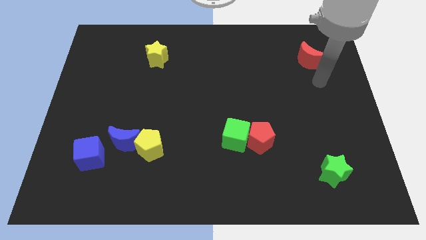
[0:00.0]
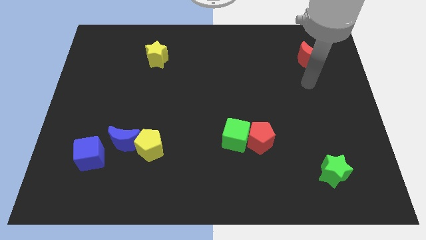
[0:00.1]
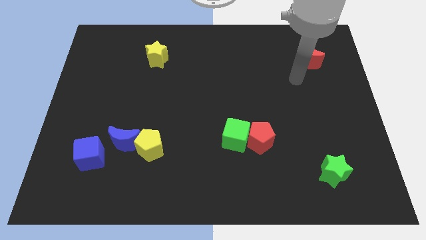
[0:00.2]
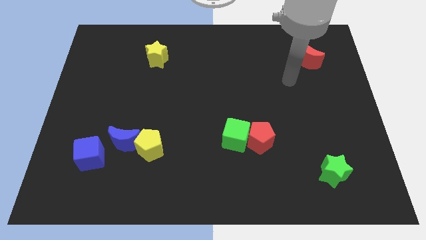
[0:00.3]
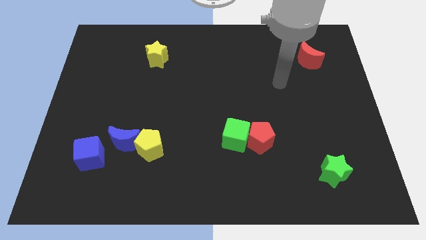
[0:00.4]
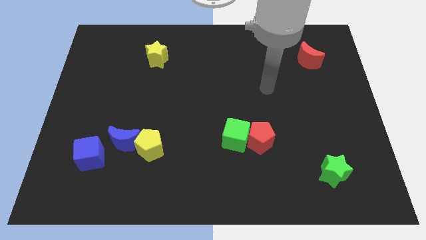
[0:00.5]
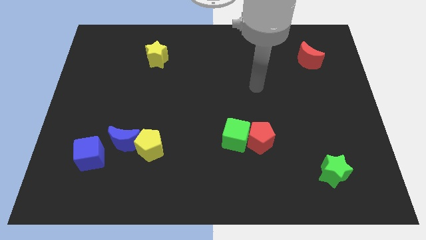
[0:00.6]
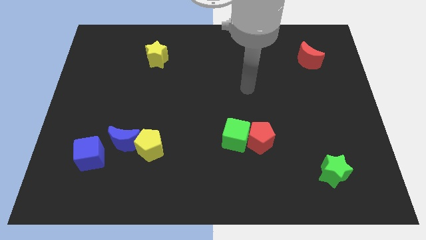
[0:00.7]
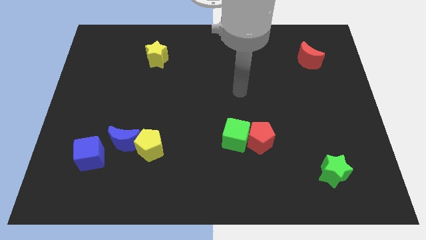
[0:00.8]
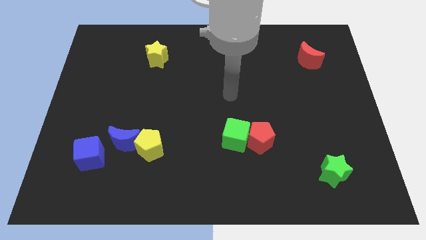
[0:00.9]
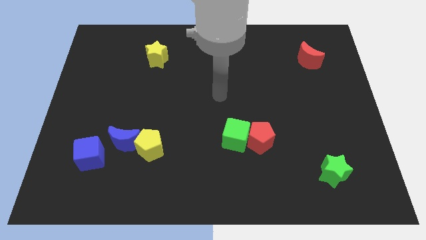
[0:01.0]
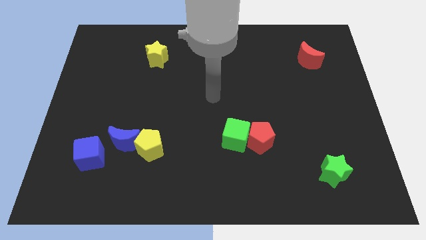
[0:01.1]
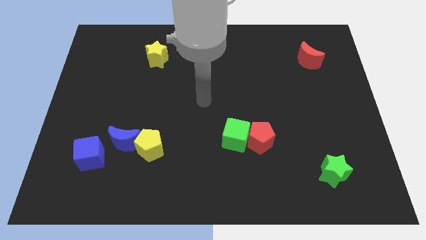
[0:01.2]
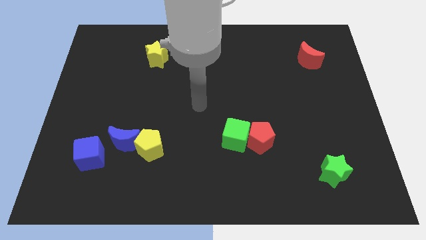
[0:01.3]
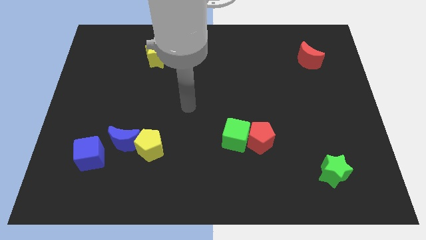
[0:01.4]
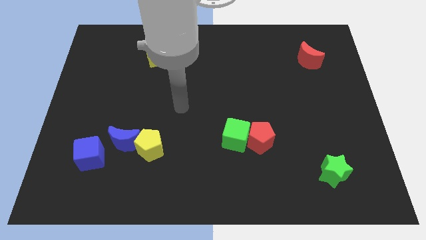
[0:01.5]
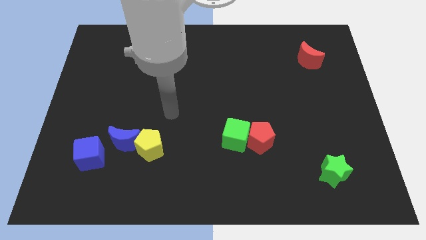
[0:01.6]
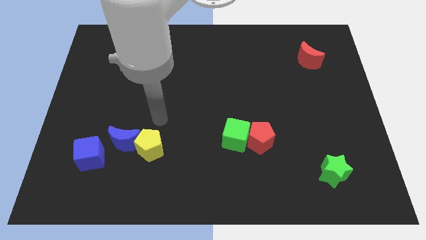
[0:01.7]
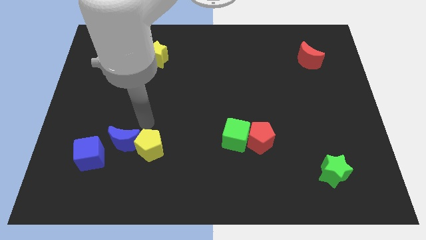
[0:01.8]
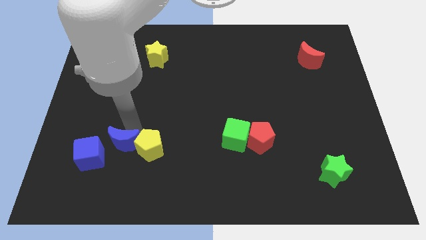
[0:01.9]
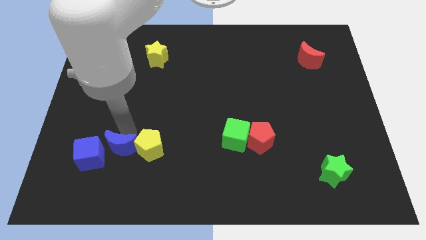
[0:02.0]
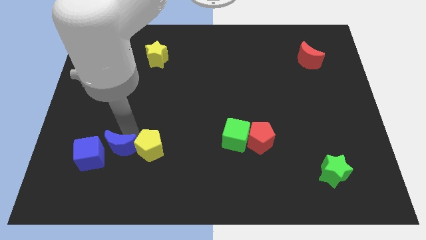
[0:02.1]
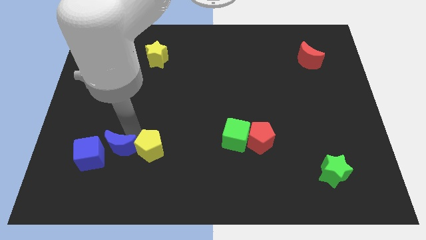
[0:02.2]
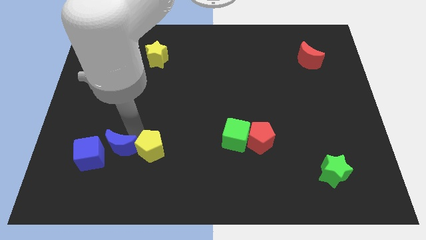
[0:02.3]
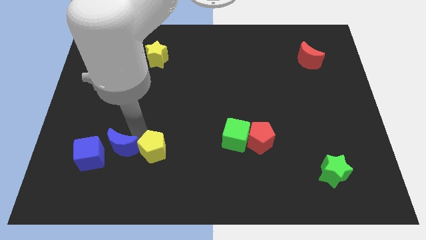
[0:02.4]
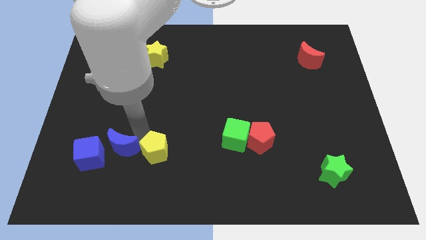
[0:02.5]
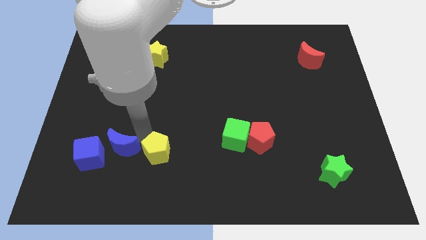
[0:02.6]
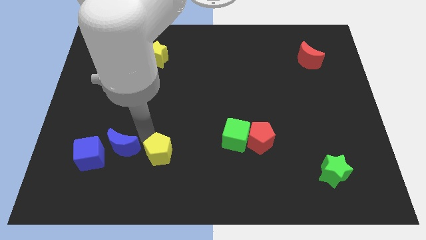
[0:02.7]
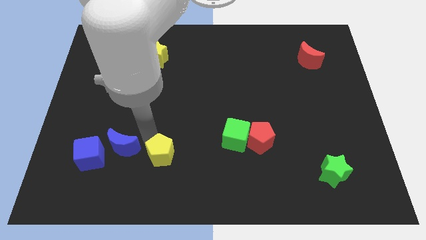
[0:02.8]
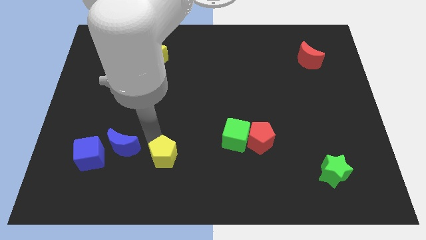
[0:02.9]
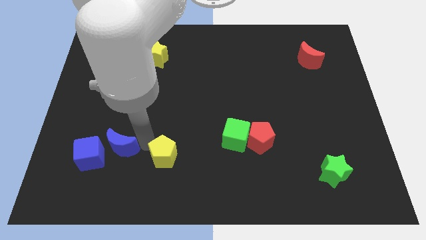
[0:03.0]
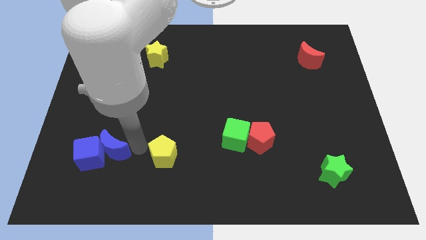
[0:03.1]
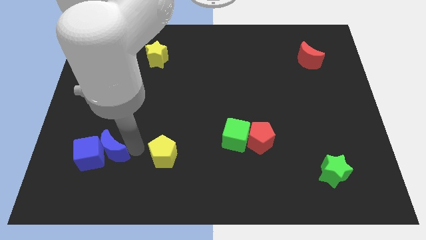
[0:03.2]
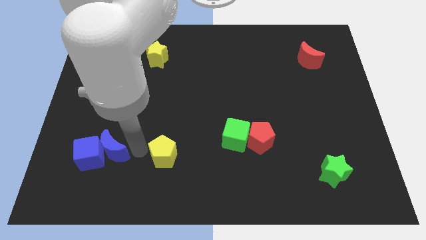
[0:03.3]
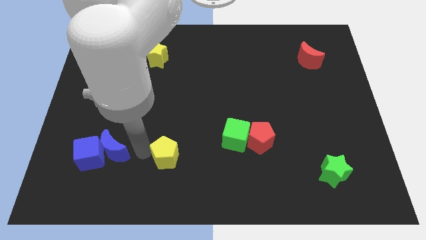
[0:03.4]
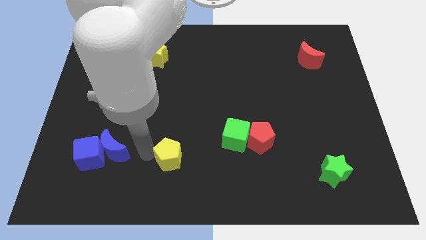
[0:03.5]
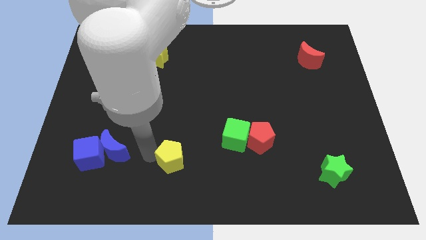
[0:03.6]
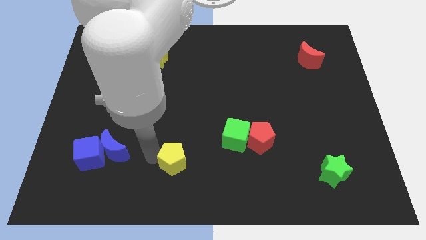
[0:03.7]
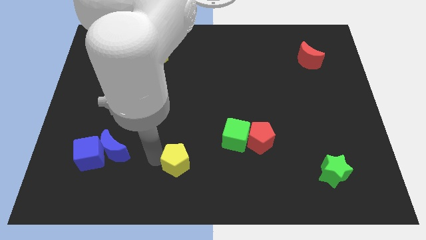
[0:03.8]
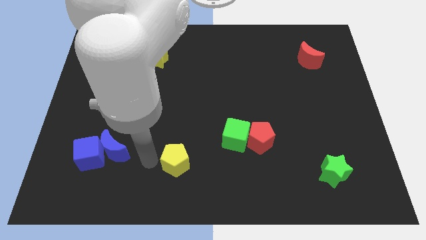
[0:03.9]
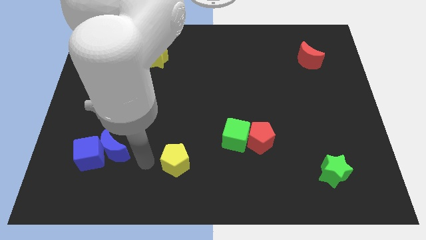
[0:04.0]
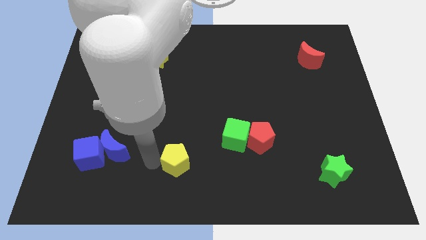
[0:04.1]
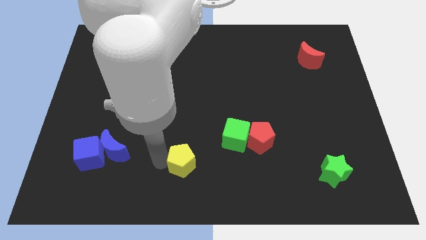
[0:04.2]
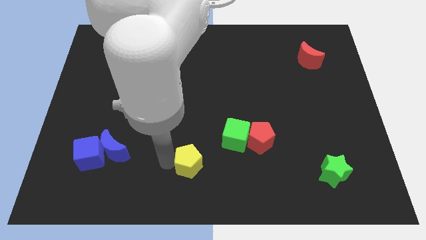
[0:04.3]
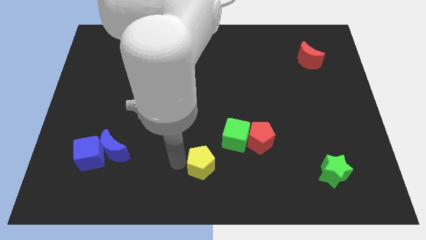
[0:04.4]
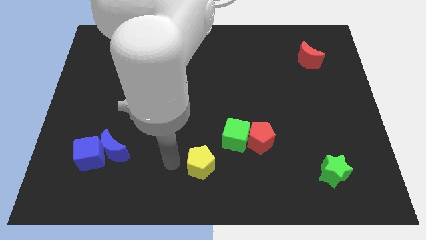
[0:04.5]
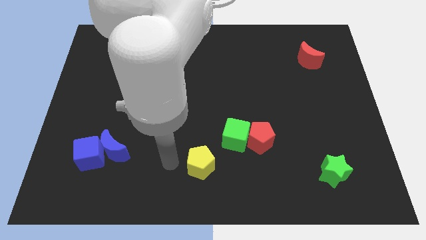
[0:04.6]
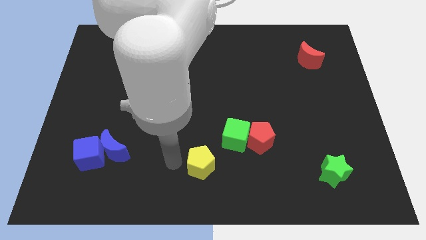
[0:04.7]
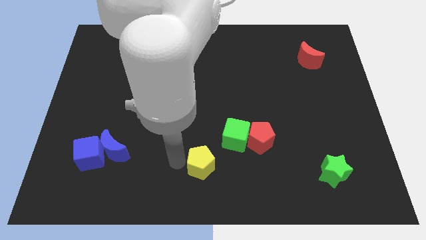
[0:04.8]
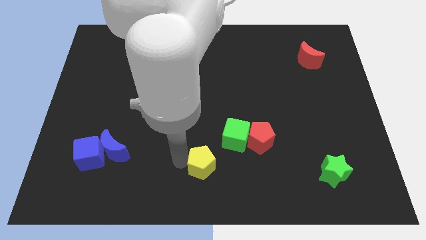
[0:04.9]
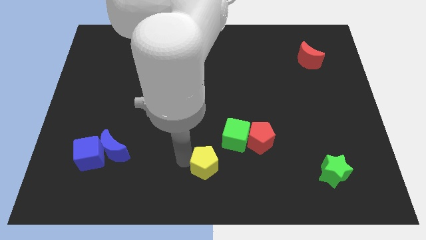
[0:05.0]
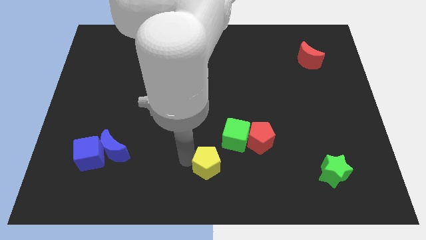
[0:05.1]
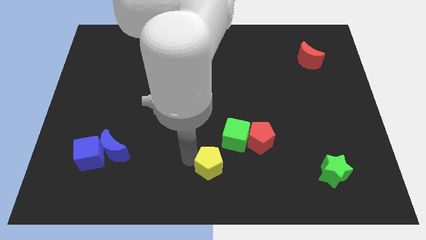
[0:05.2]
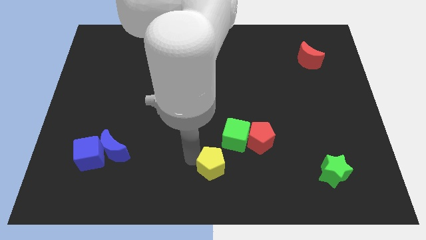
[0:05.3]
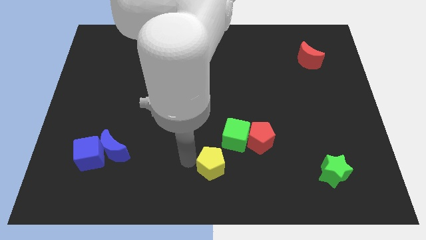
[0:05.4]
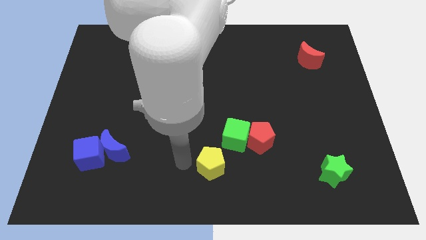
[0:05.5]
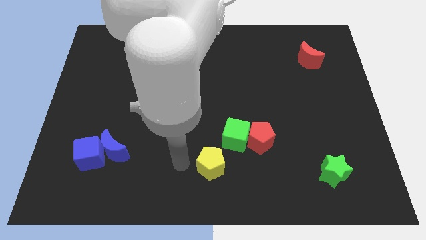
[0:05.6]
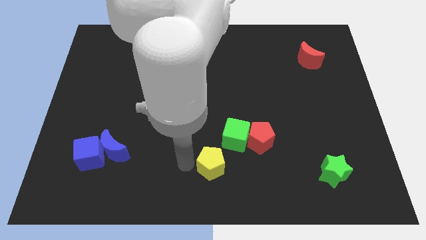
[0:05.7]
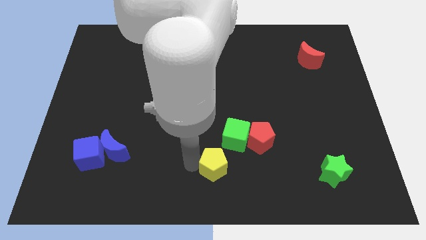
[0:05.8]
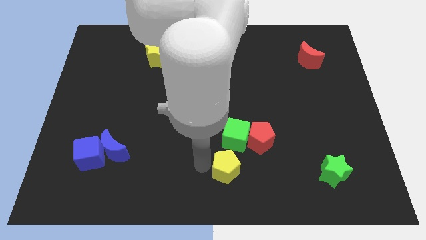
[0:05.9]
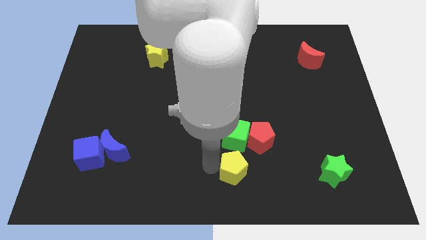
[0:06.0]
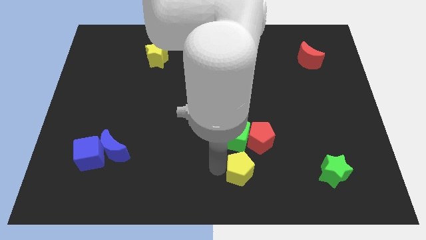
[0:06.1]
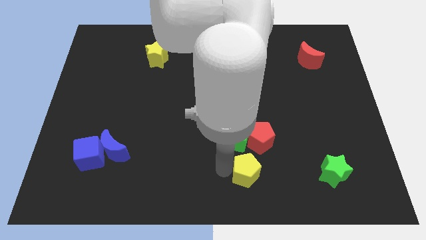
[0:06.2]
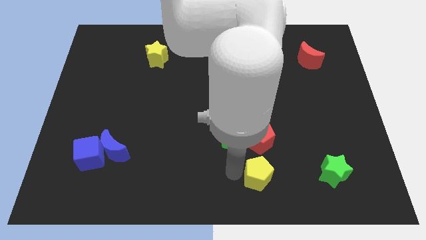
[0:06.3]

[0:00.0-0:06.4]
move the yellow pentagon to the right

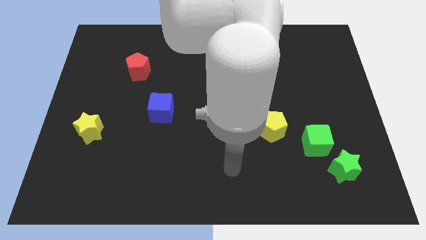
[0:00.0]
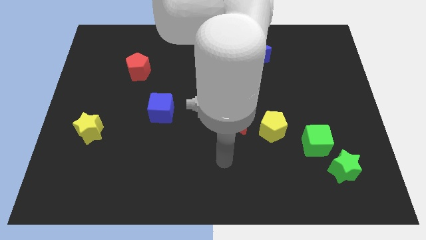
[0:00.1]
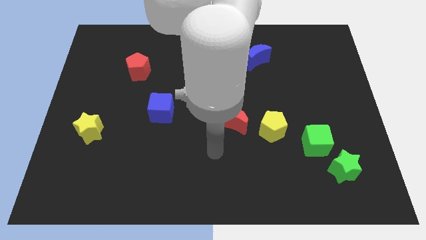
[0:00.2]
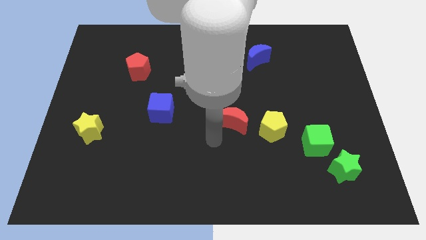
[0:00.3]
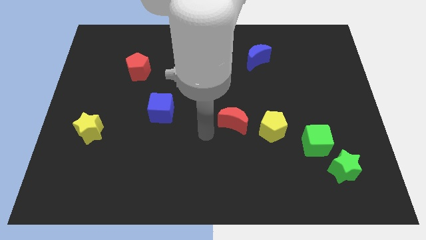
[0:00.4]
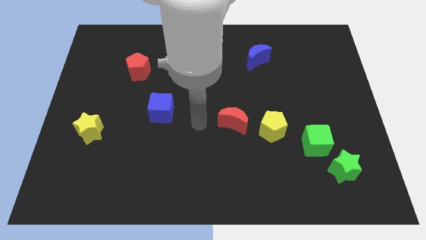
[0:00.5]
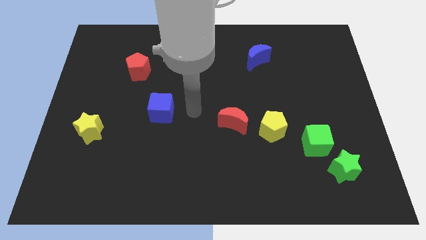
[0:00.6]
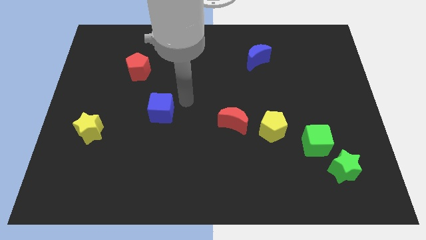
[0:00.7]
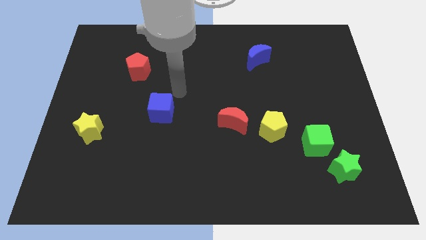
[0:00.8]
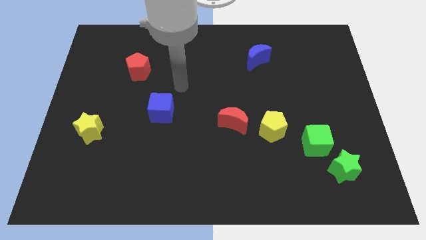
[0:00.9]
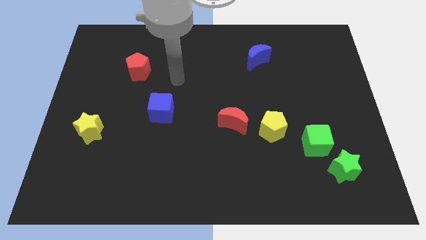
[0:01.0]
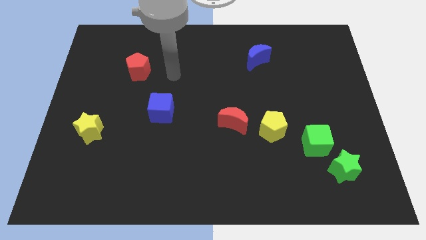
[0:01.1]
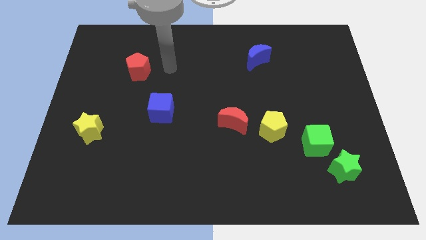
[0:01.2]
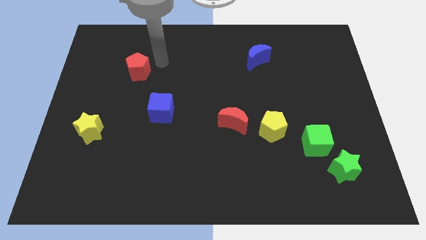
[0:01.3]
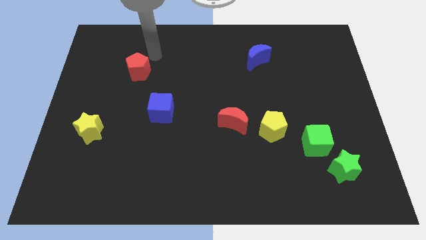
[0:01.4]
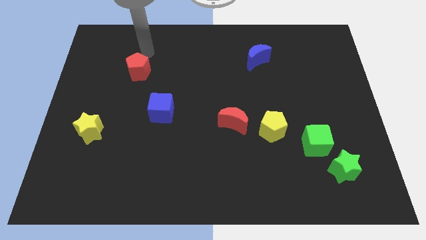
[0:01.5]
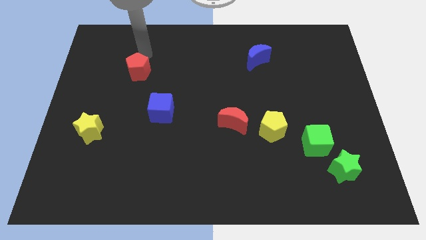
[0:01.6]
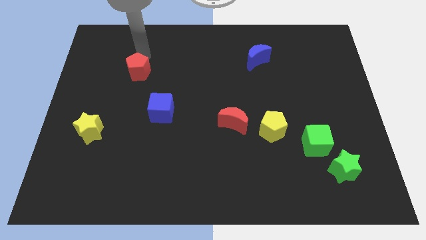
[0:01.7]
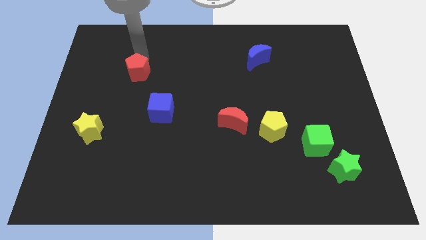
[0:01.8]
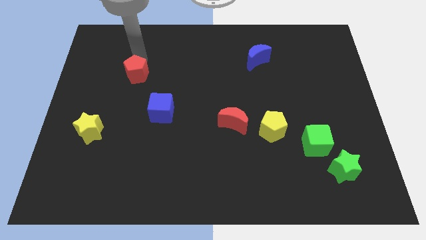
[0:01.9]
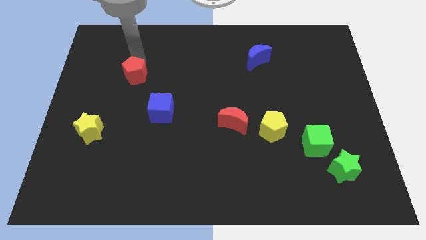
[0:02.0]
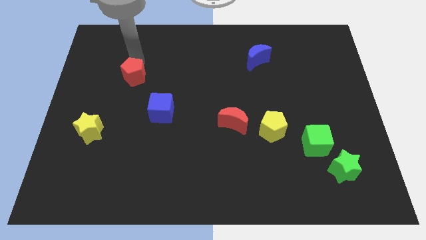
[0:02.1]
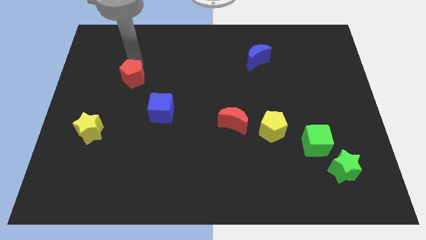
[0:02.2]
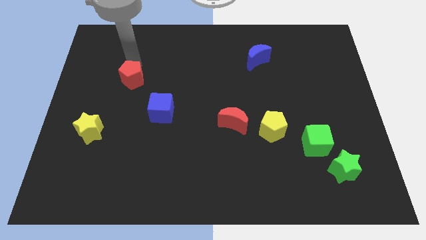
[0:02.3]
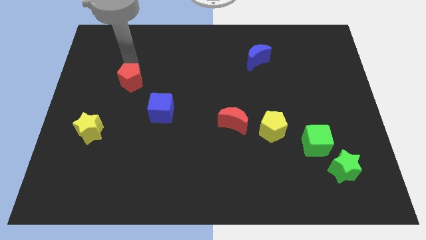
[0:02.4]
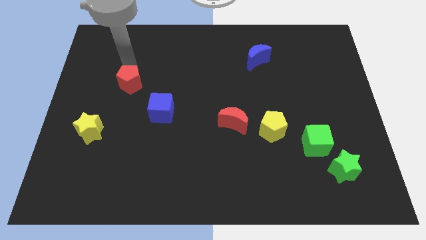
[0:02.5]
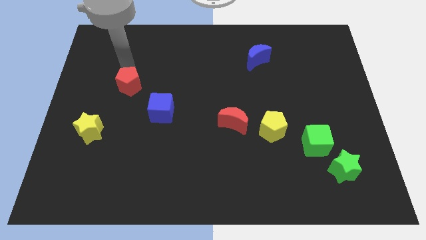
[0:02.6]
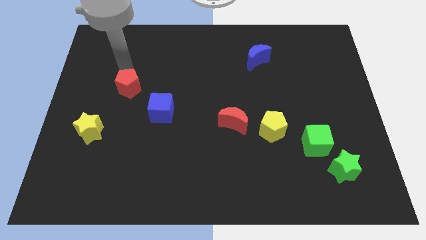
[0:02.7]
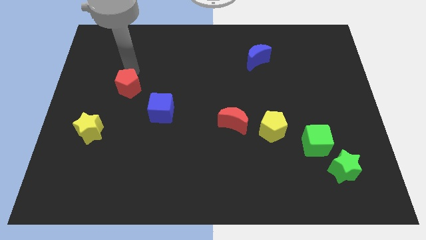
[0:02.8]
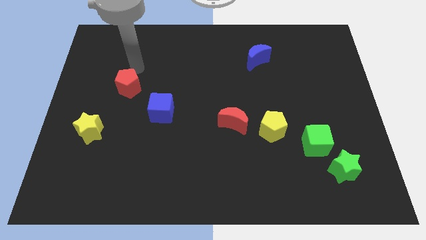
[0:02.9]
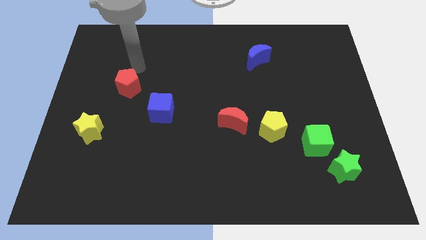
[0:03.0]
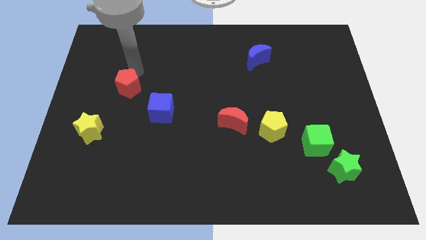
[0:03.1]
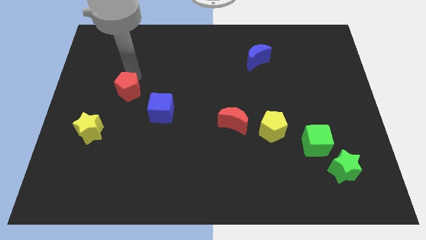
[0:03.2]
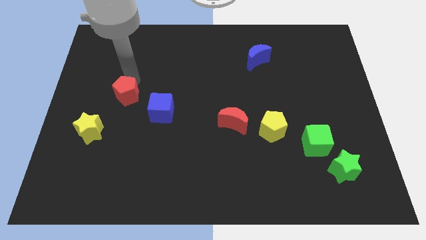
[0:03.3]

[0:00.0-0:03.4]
slightly slide the red pentagon downwards
